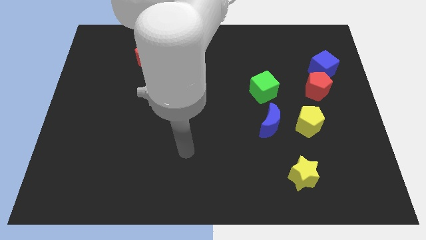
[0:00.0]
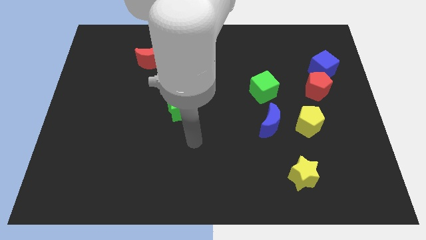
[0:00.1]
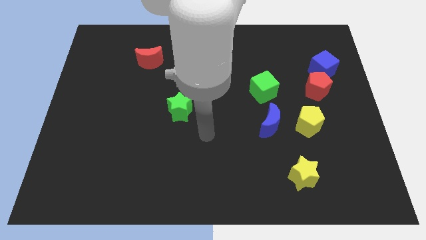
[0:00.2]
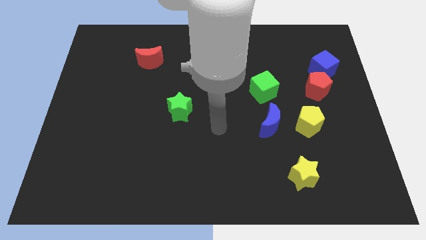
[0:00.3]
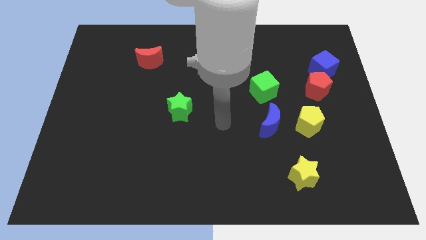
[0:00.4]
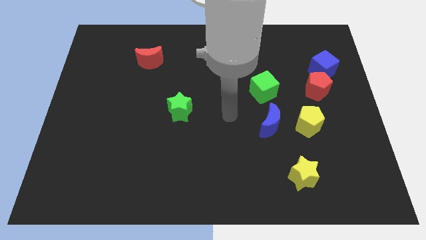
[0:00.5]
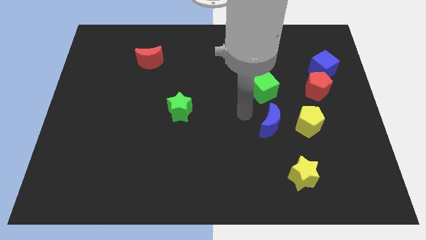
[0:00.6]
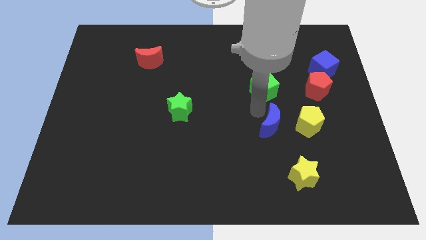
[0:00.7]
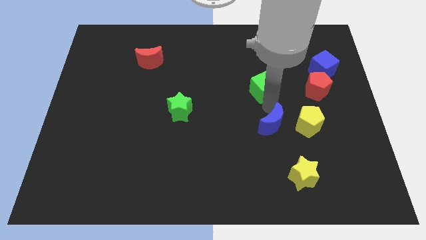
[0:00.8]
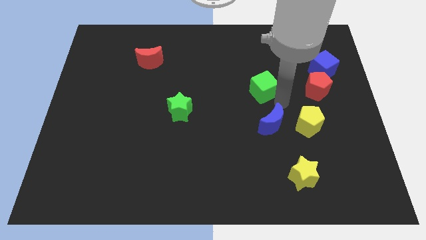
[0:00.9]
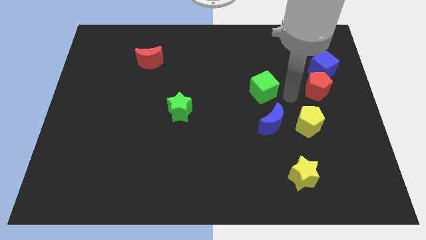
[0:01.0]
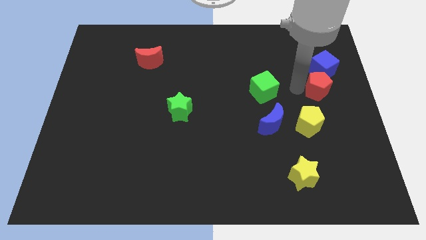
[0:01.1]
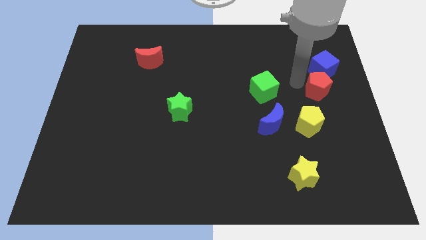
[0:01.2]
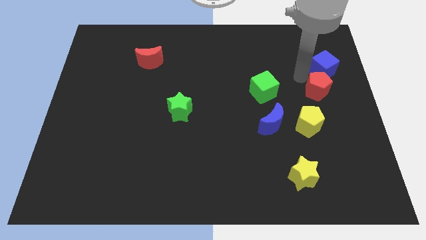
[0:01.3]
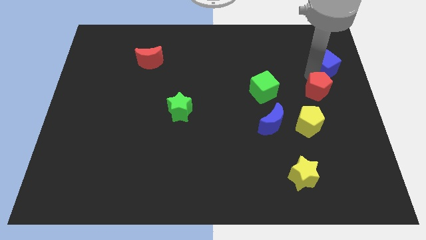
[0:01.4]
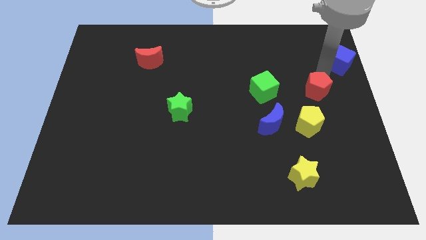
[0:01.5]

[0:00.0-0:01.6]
pull the red pentagon apart from the blue cube

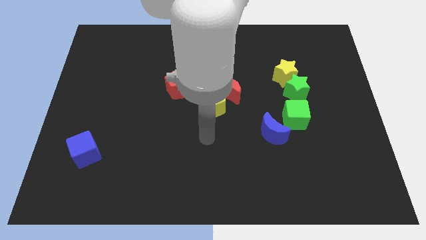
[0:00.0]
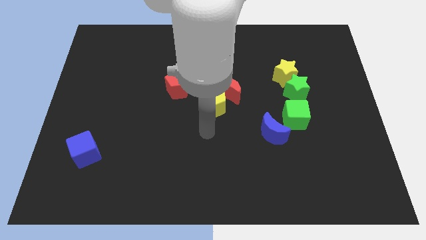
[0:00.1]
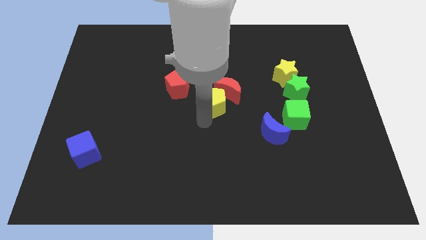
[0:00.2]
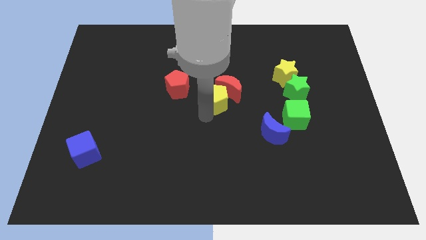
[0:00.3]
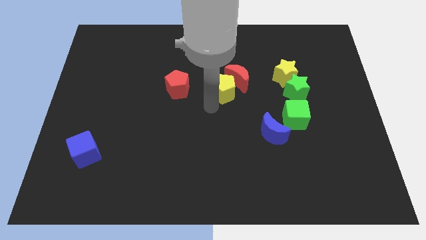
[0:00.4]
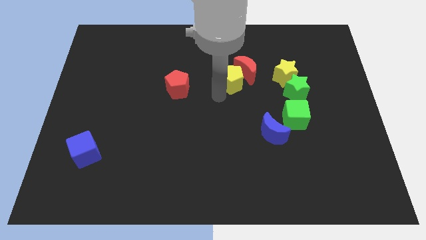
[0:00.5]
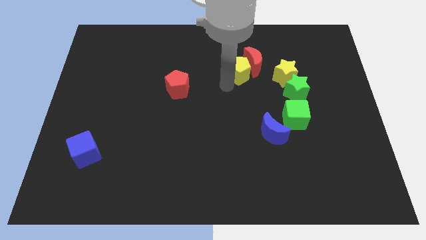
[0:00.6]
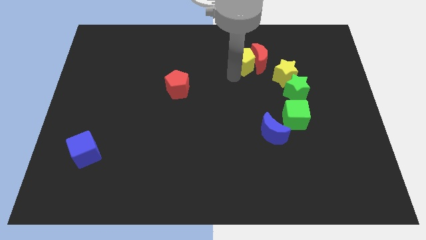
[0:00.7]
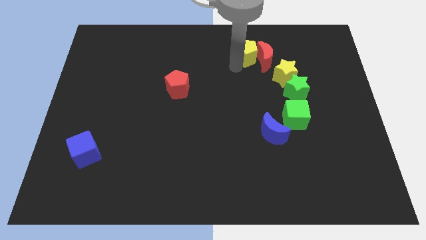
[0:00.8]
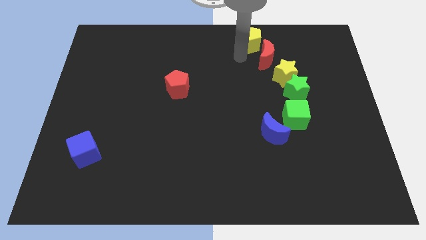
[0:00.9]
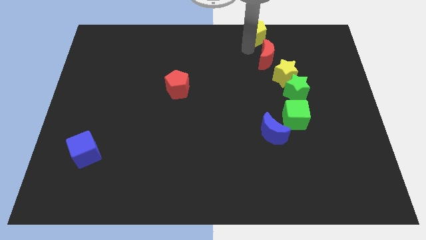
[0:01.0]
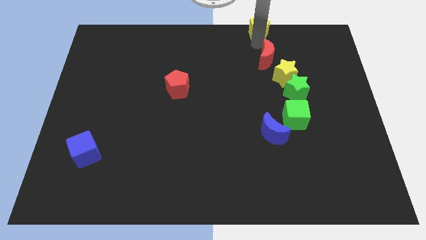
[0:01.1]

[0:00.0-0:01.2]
pull the red moon apart from the yellow pentagon

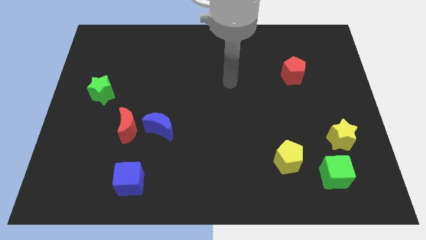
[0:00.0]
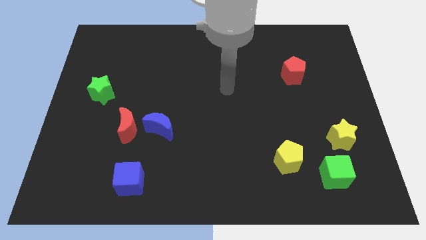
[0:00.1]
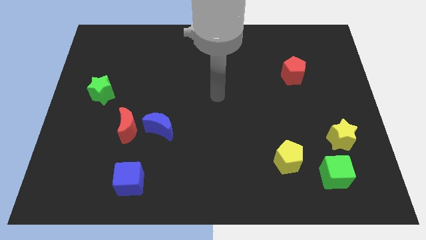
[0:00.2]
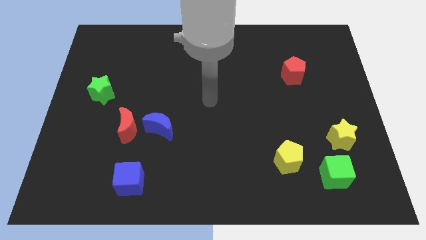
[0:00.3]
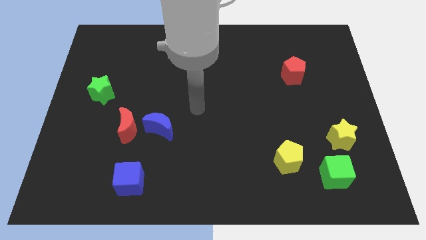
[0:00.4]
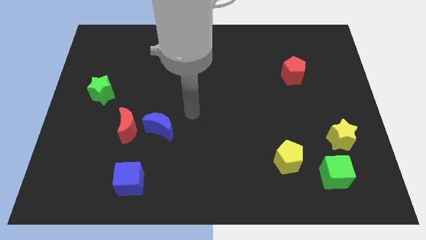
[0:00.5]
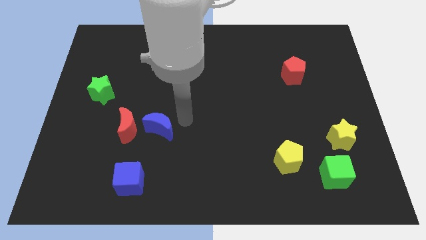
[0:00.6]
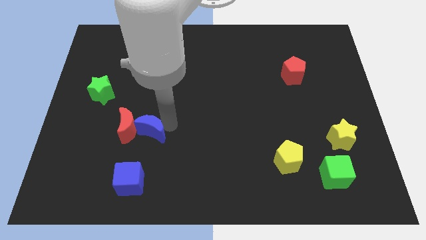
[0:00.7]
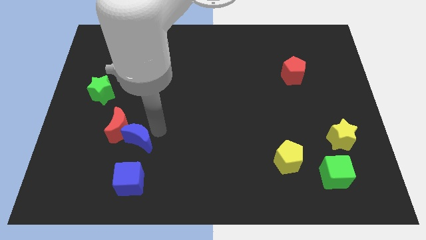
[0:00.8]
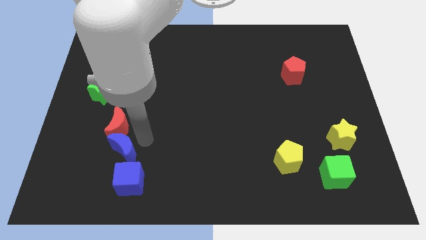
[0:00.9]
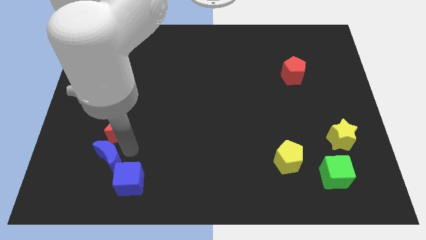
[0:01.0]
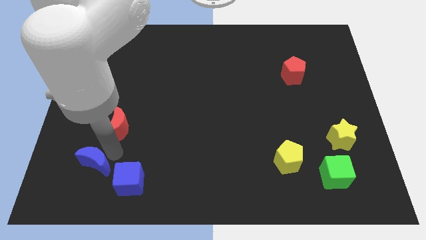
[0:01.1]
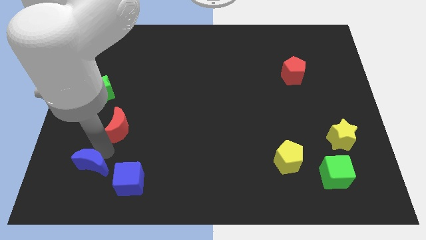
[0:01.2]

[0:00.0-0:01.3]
pull the red moon apart from the blue moon

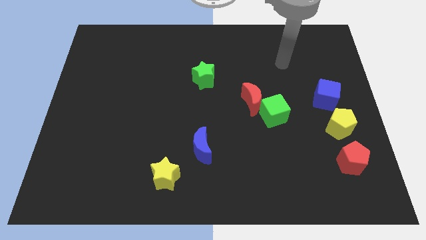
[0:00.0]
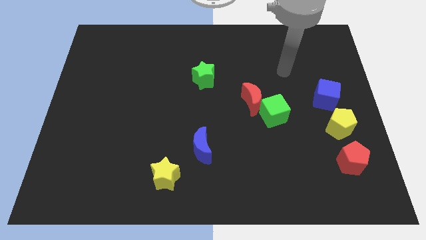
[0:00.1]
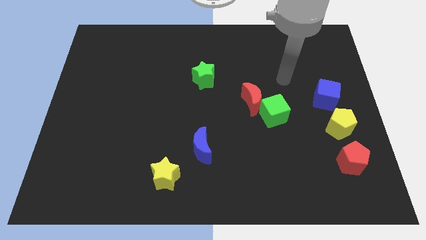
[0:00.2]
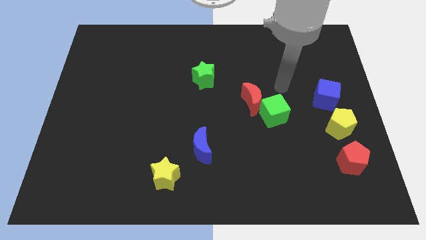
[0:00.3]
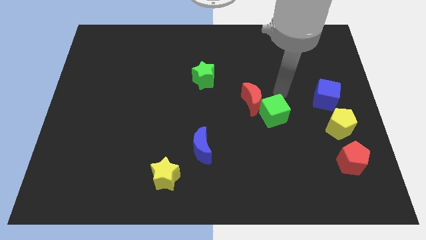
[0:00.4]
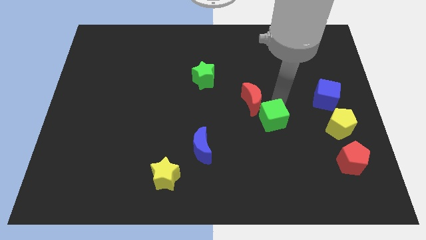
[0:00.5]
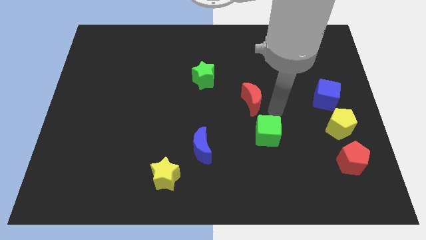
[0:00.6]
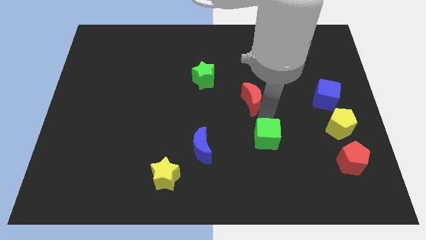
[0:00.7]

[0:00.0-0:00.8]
move the red moon away from the green cube

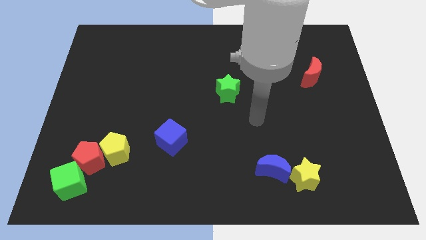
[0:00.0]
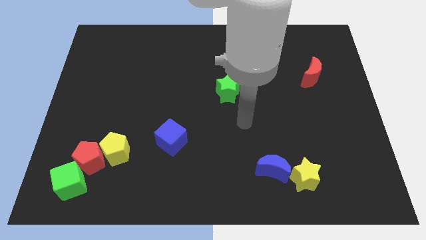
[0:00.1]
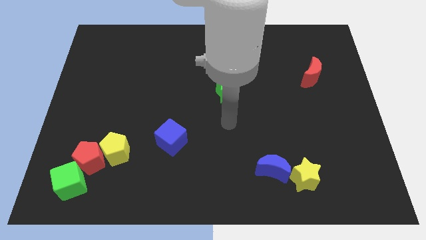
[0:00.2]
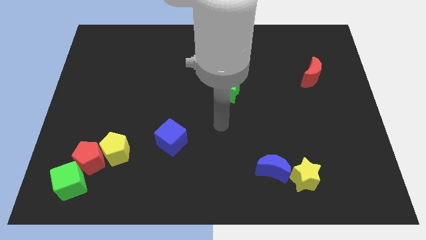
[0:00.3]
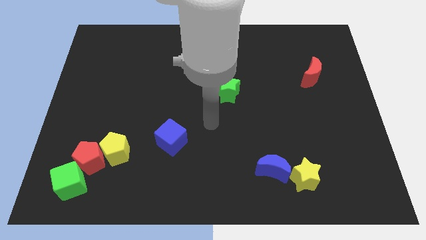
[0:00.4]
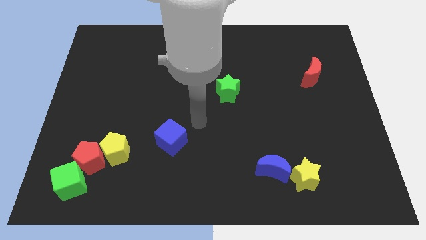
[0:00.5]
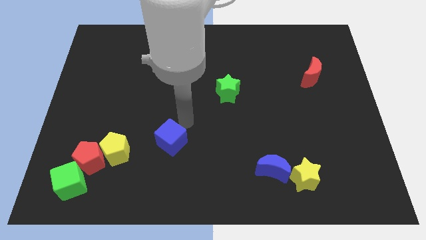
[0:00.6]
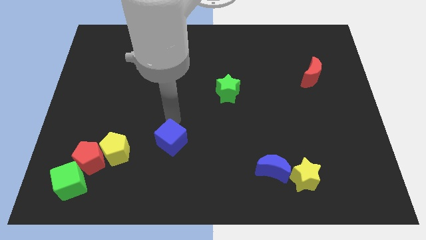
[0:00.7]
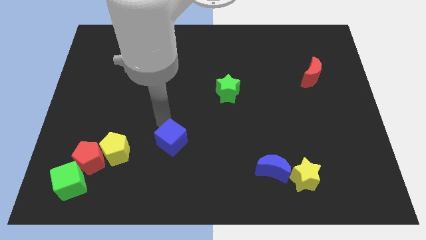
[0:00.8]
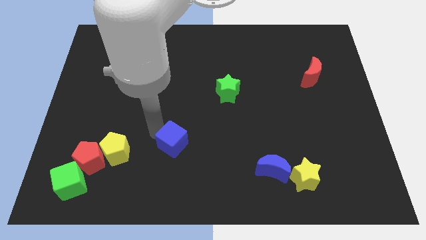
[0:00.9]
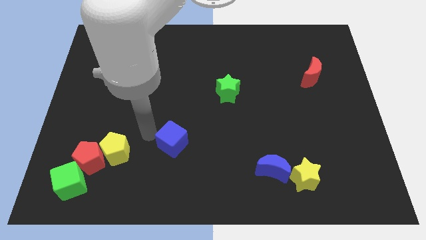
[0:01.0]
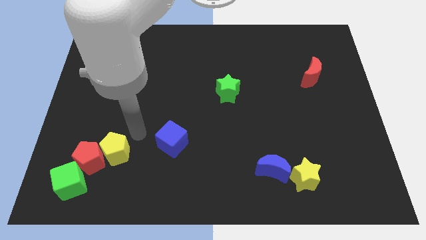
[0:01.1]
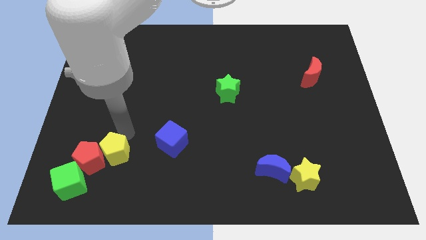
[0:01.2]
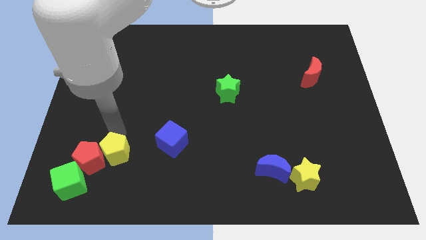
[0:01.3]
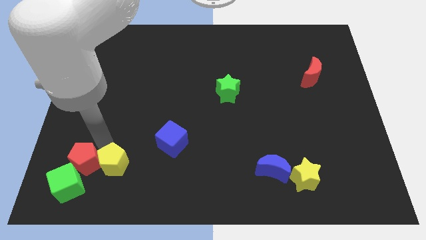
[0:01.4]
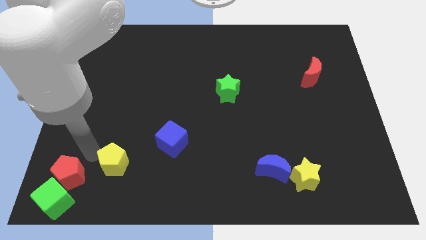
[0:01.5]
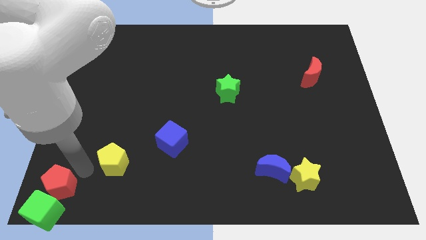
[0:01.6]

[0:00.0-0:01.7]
pull the yellow pentagon apart from the red pentagon

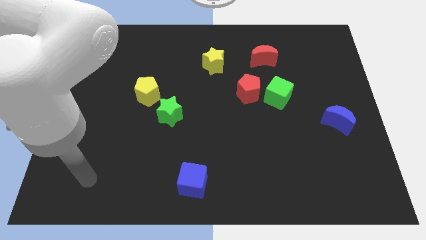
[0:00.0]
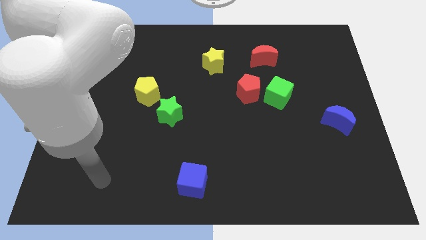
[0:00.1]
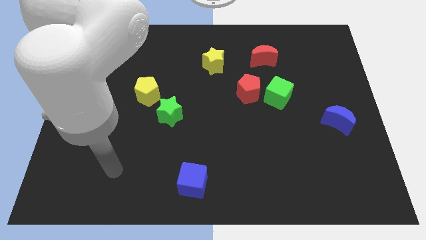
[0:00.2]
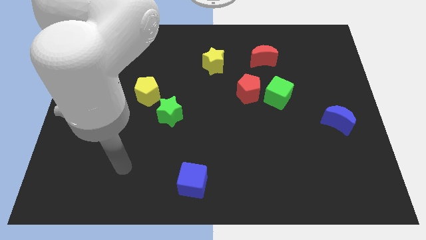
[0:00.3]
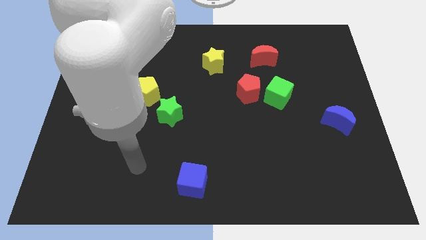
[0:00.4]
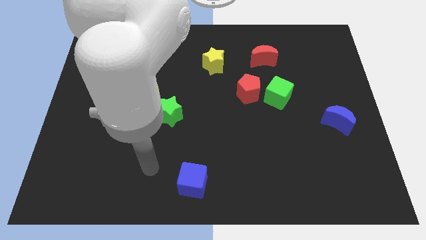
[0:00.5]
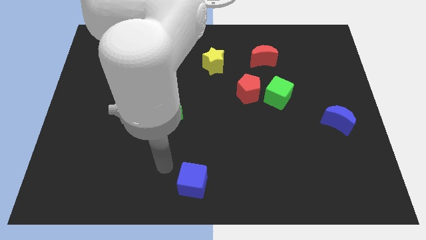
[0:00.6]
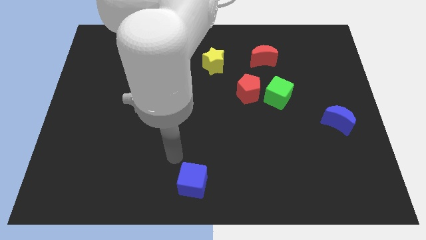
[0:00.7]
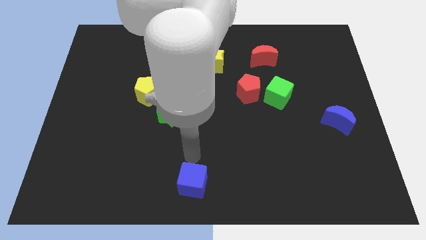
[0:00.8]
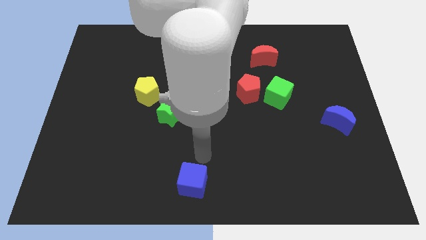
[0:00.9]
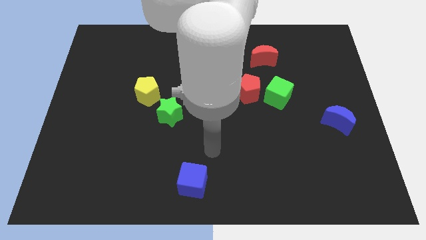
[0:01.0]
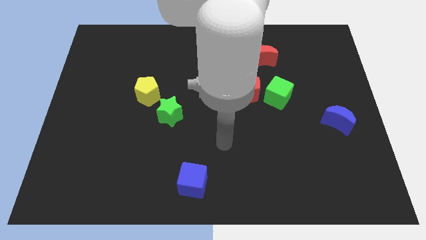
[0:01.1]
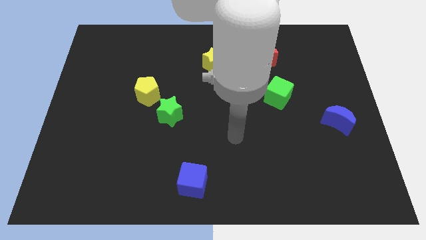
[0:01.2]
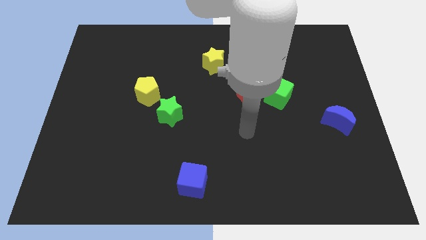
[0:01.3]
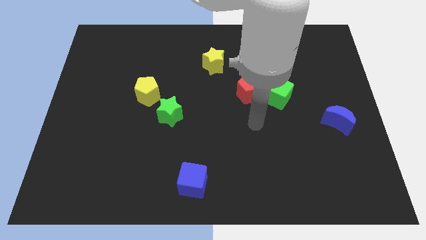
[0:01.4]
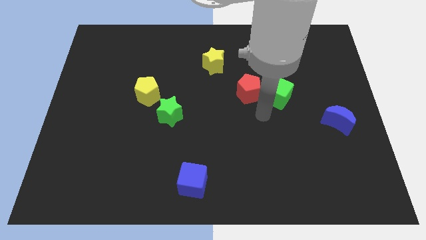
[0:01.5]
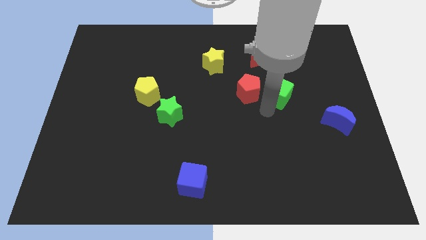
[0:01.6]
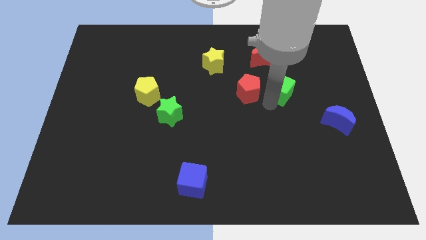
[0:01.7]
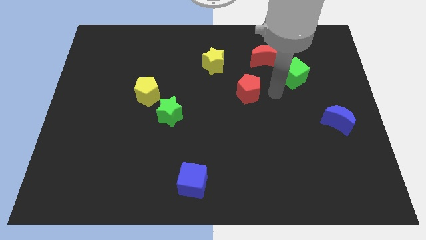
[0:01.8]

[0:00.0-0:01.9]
separate the red pentagon from the green cube

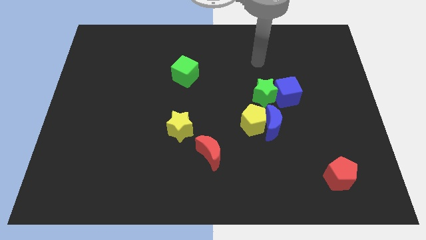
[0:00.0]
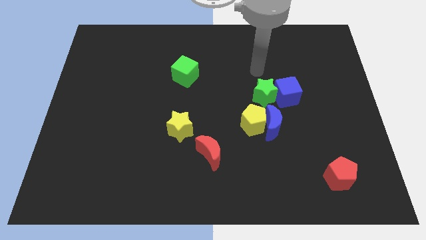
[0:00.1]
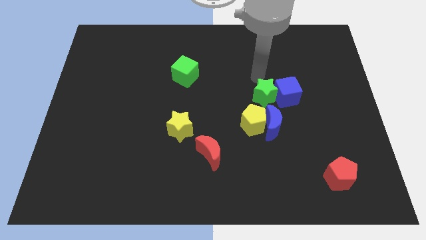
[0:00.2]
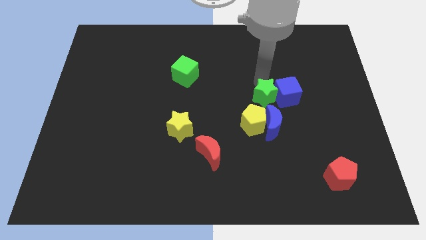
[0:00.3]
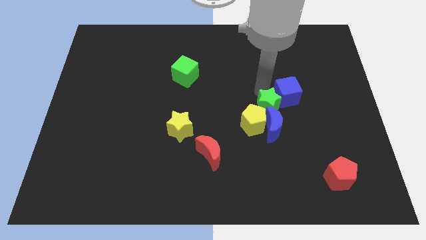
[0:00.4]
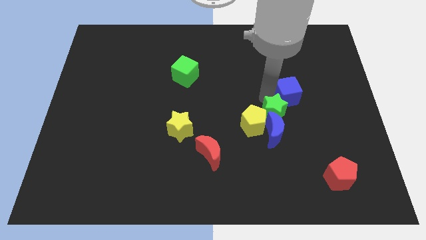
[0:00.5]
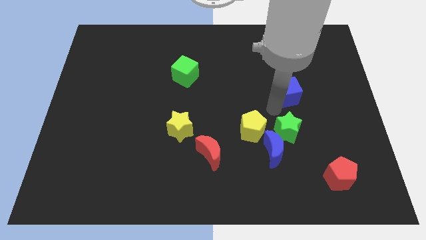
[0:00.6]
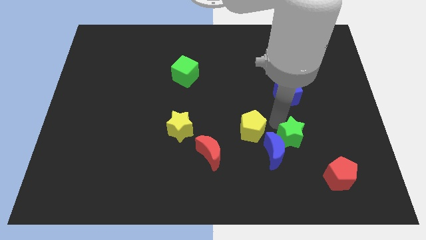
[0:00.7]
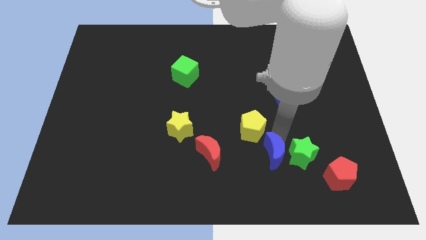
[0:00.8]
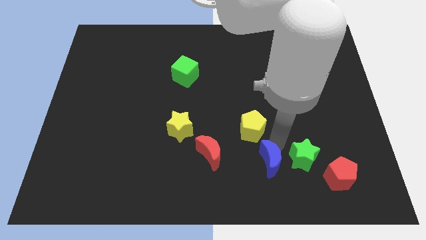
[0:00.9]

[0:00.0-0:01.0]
move the yellow pentagon away from the blue moon and green star
